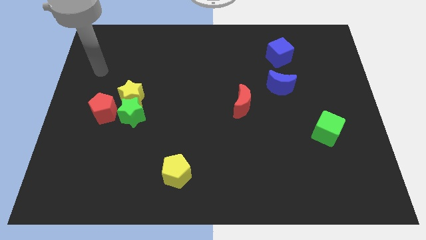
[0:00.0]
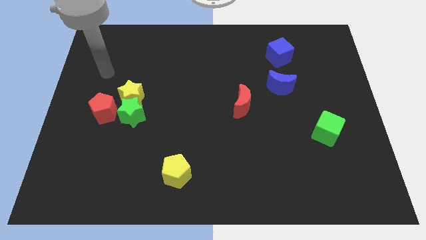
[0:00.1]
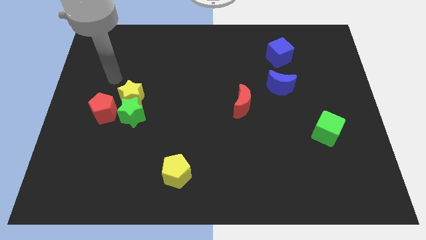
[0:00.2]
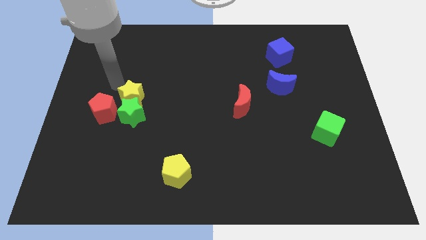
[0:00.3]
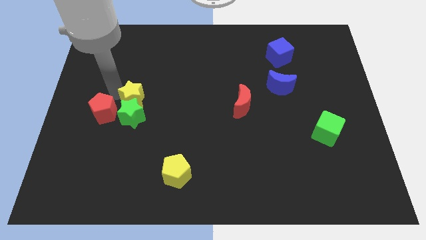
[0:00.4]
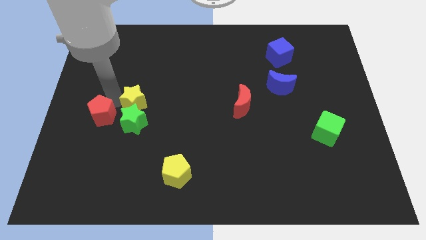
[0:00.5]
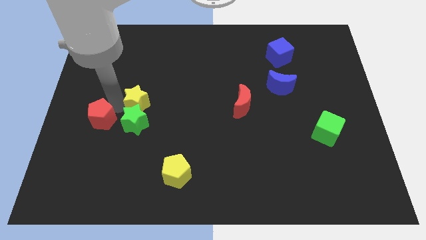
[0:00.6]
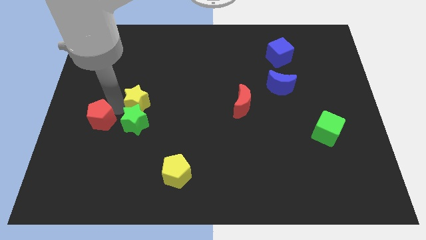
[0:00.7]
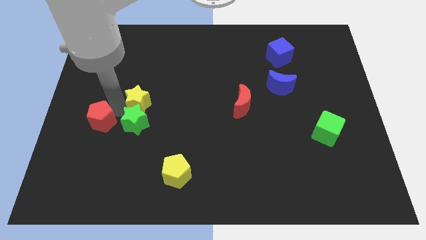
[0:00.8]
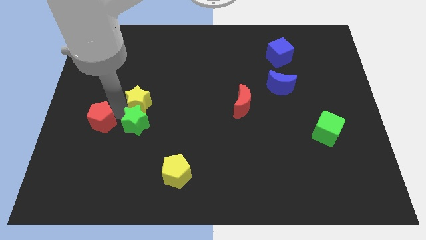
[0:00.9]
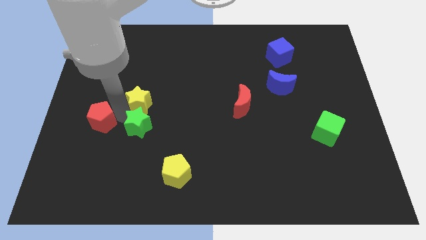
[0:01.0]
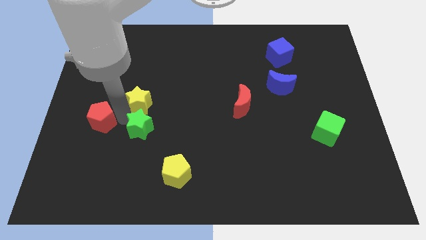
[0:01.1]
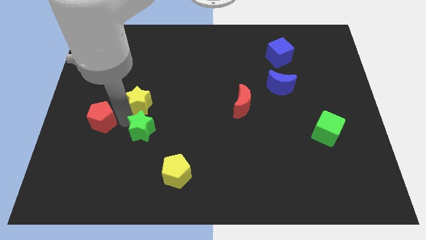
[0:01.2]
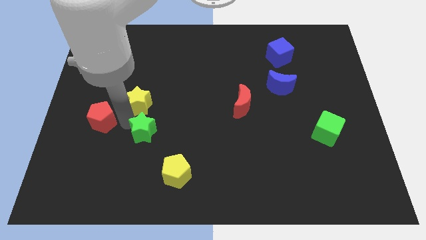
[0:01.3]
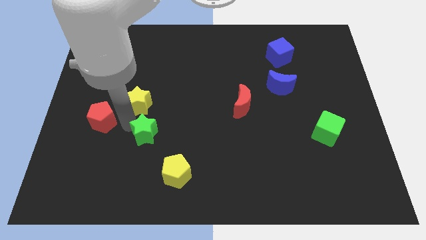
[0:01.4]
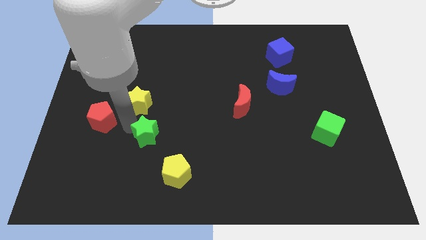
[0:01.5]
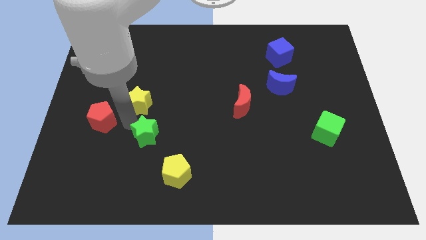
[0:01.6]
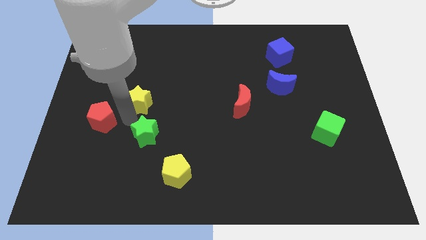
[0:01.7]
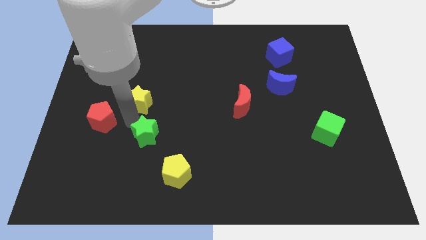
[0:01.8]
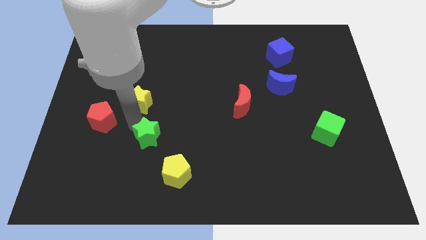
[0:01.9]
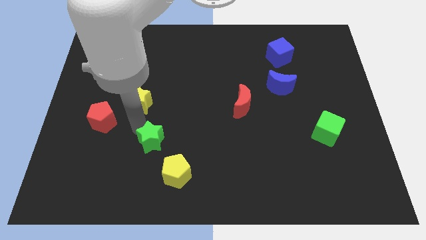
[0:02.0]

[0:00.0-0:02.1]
move the green star away from the yellow star and red pentagon

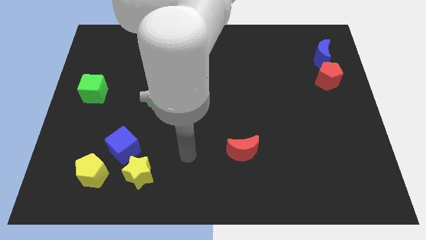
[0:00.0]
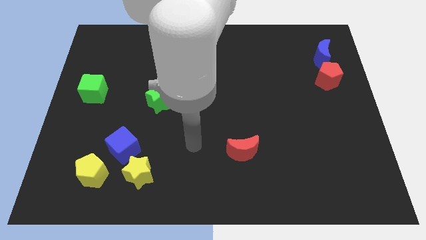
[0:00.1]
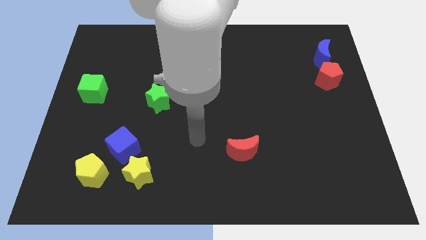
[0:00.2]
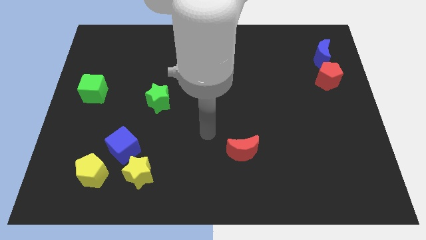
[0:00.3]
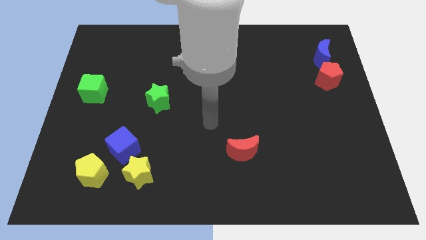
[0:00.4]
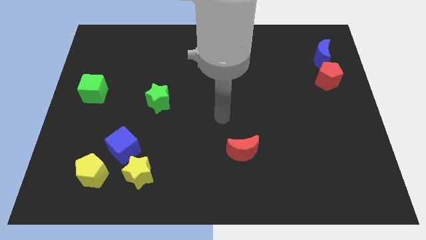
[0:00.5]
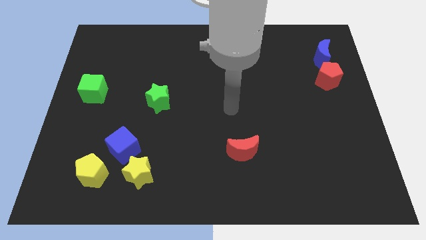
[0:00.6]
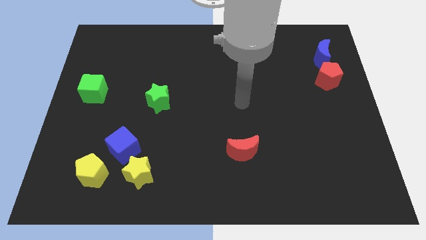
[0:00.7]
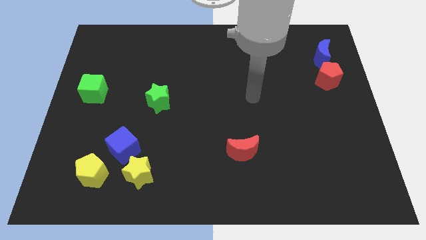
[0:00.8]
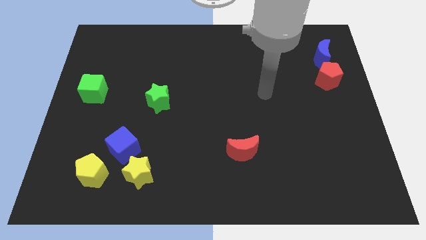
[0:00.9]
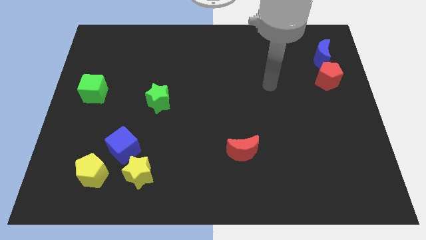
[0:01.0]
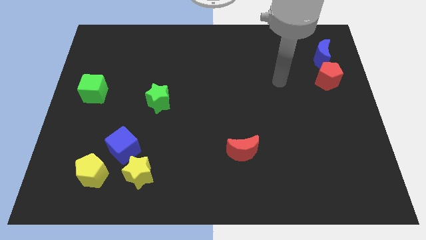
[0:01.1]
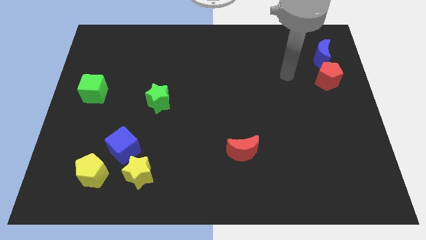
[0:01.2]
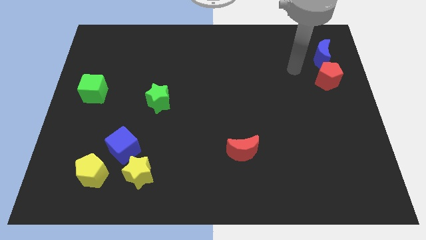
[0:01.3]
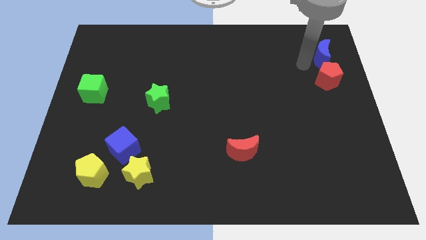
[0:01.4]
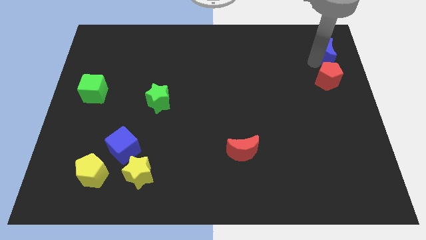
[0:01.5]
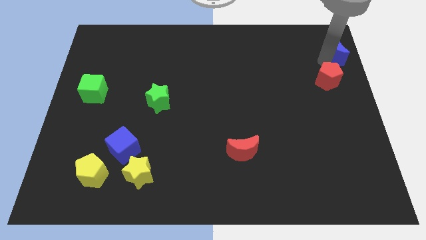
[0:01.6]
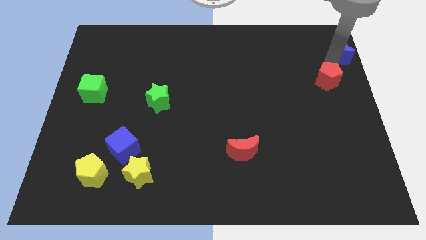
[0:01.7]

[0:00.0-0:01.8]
separate the red pentagon from the blue moon

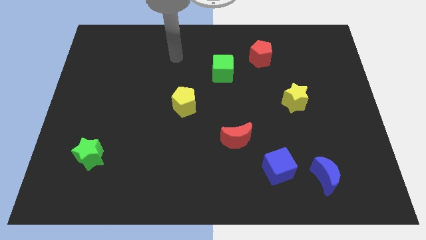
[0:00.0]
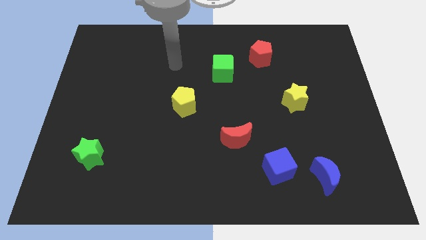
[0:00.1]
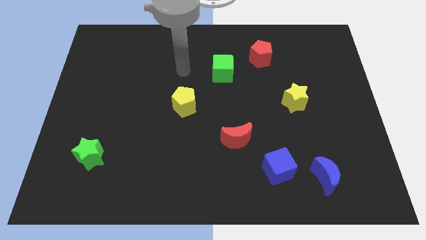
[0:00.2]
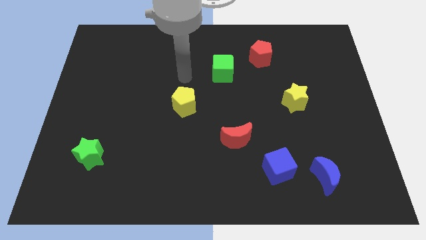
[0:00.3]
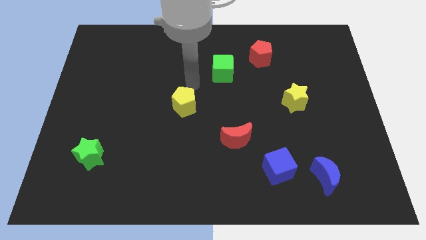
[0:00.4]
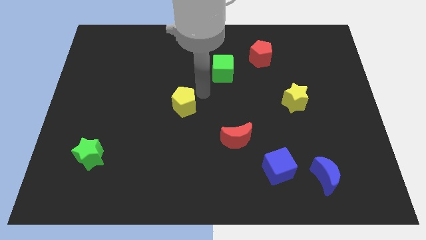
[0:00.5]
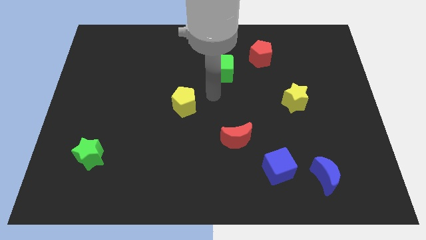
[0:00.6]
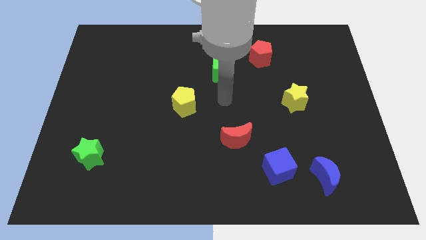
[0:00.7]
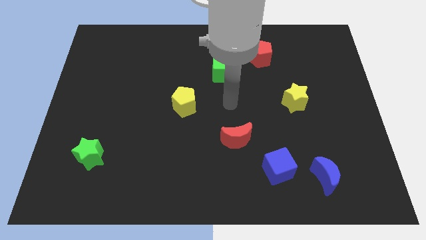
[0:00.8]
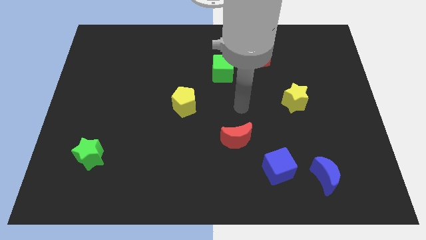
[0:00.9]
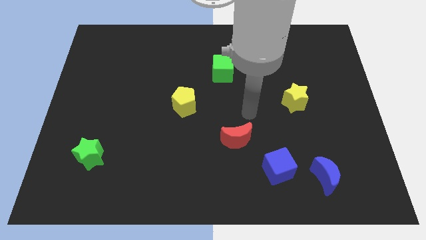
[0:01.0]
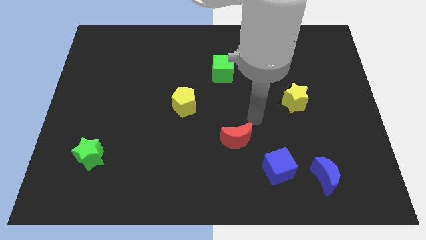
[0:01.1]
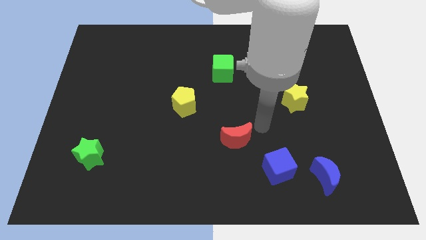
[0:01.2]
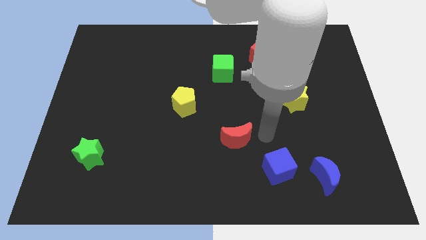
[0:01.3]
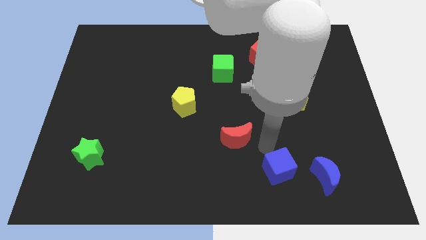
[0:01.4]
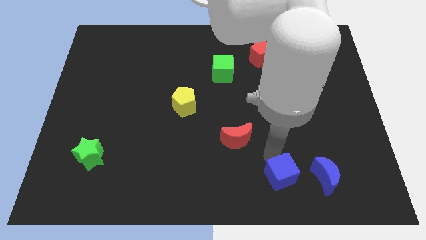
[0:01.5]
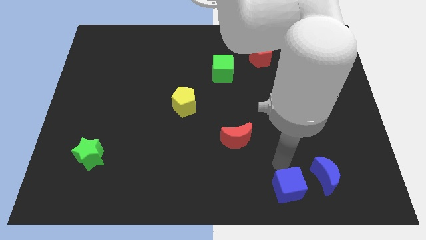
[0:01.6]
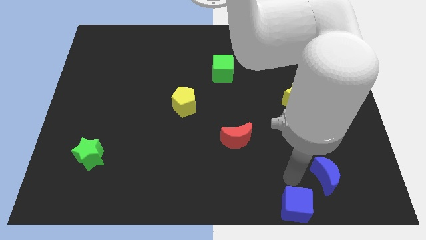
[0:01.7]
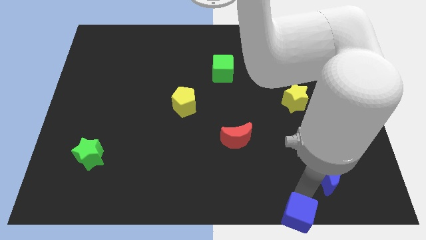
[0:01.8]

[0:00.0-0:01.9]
separate the blue moon from the blue cube

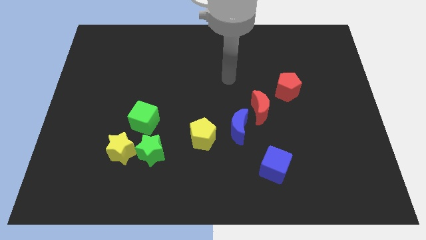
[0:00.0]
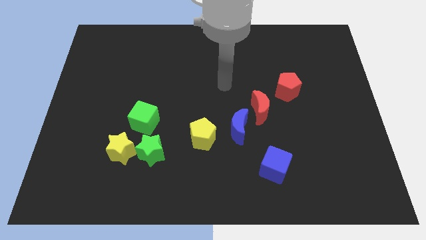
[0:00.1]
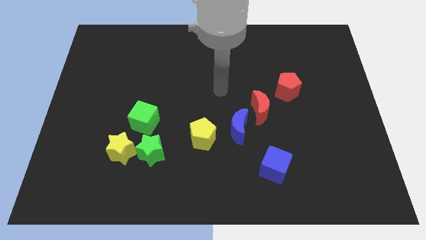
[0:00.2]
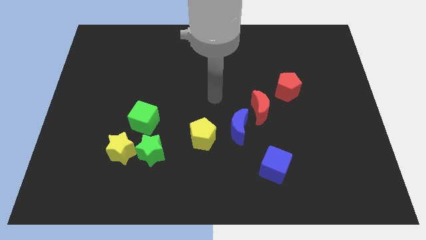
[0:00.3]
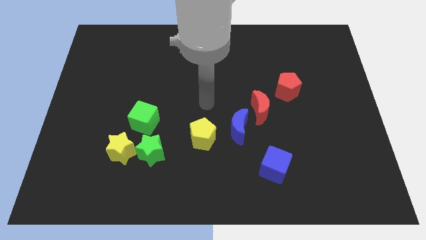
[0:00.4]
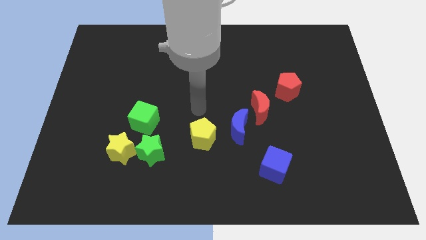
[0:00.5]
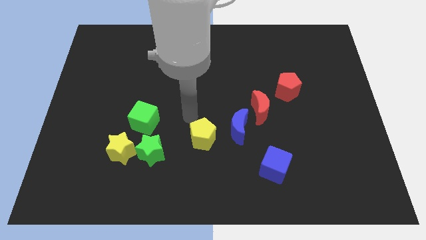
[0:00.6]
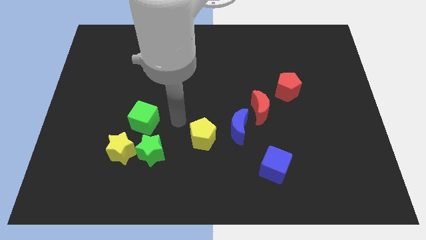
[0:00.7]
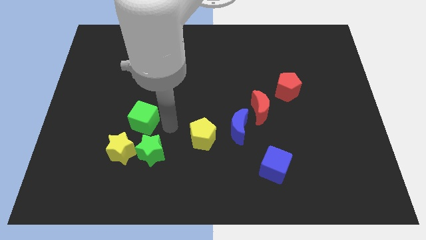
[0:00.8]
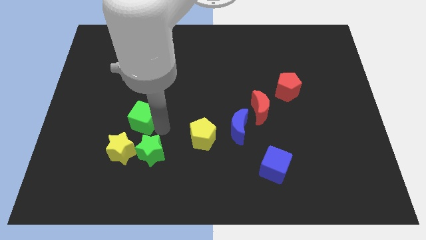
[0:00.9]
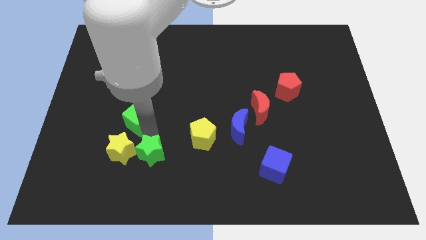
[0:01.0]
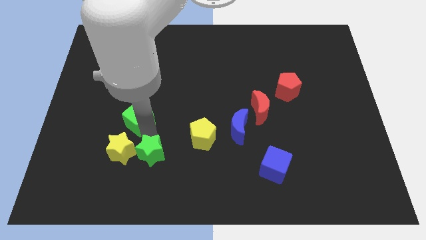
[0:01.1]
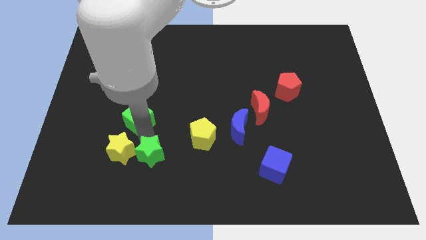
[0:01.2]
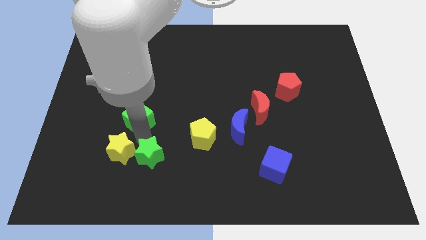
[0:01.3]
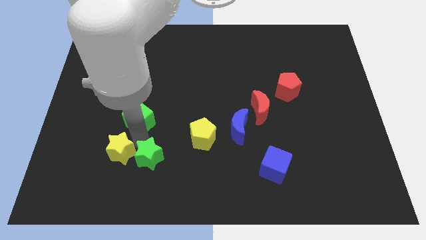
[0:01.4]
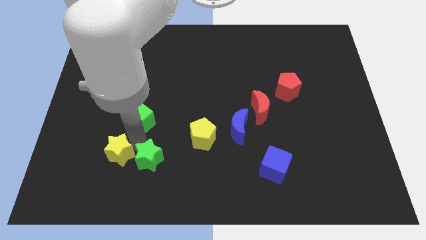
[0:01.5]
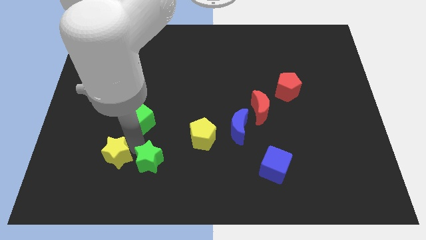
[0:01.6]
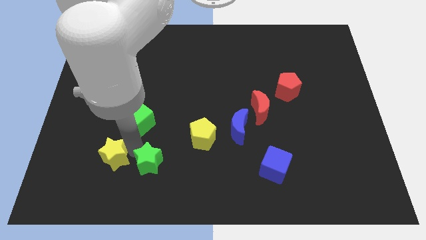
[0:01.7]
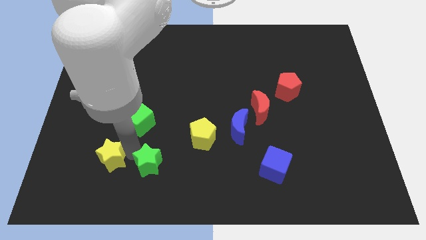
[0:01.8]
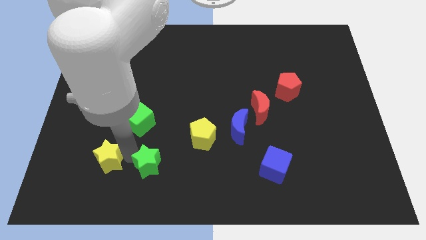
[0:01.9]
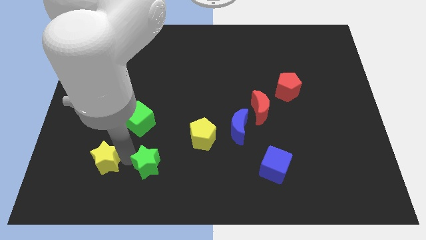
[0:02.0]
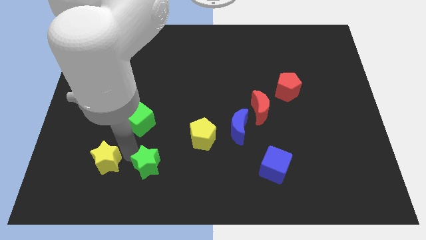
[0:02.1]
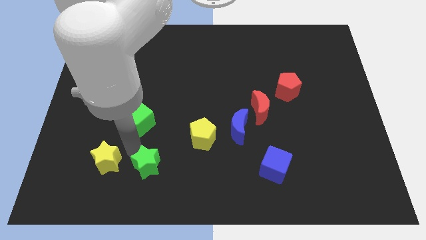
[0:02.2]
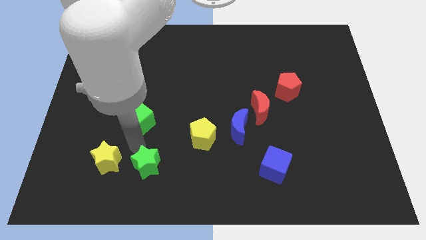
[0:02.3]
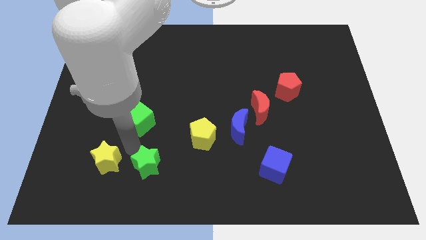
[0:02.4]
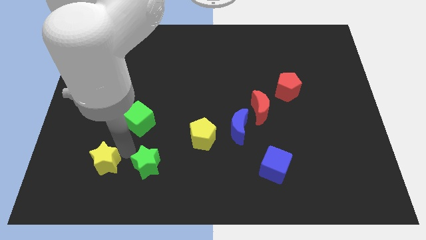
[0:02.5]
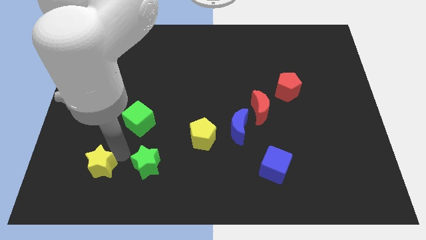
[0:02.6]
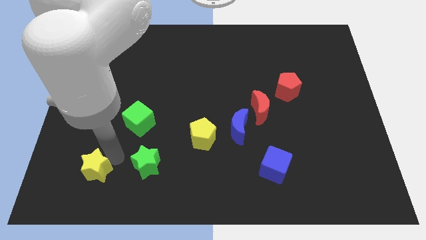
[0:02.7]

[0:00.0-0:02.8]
move the yellow star away from the green star and green cube

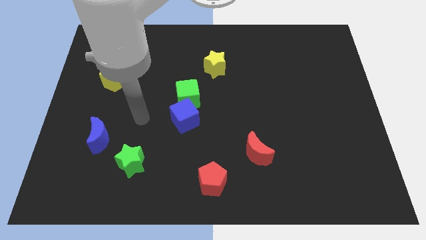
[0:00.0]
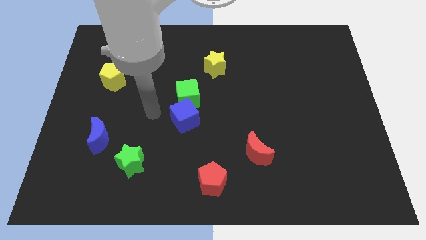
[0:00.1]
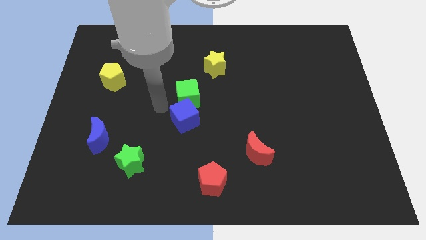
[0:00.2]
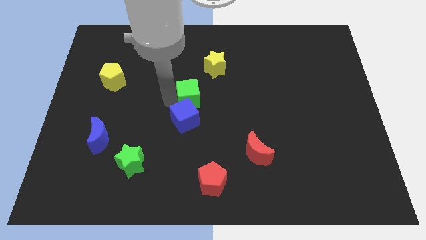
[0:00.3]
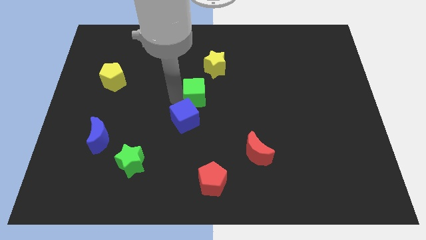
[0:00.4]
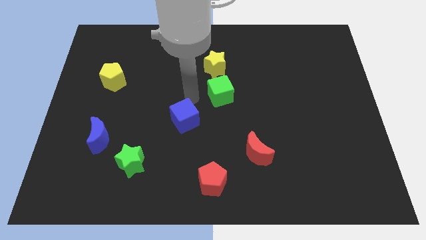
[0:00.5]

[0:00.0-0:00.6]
pull the blue cube apart from the green cube
